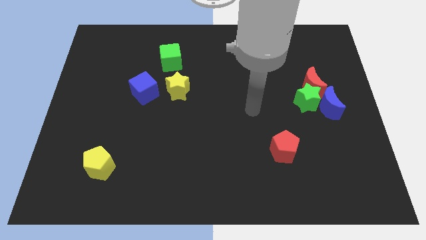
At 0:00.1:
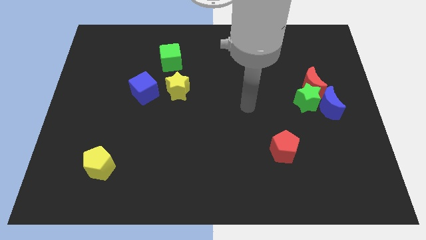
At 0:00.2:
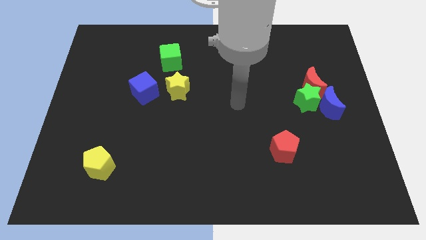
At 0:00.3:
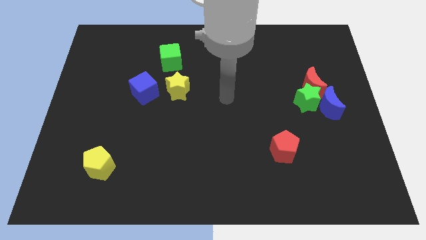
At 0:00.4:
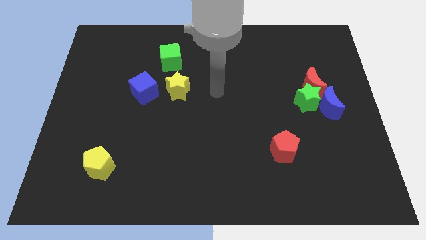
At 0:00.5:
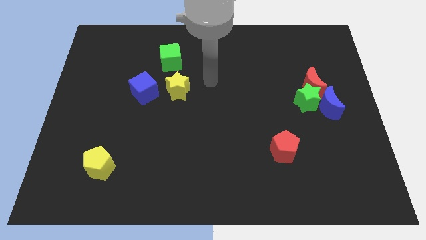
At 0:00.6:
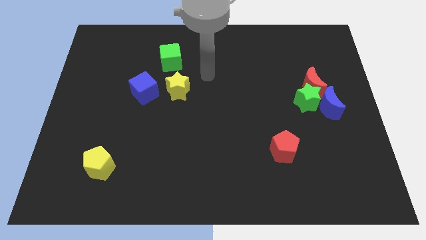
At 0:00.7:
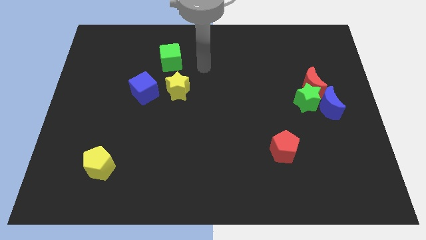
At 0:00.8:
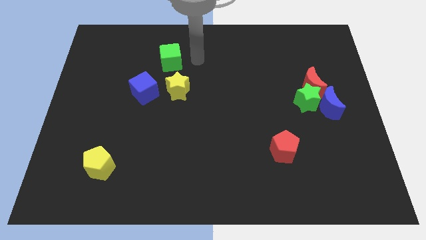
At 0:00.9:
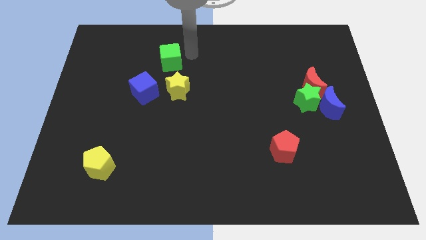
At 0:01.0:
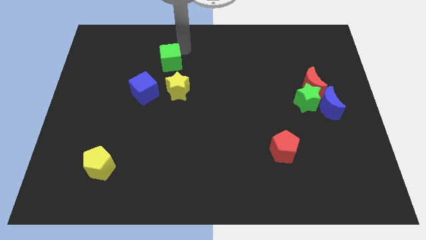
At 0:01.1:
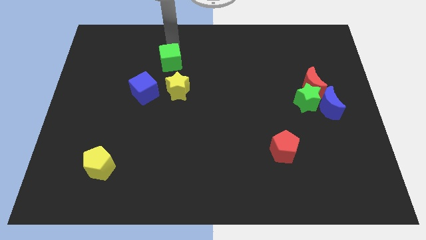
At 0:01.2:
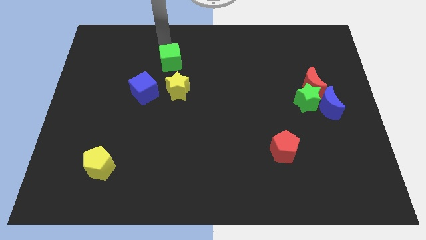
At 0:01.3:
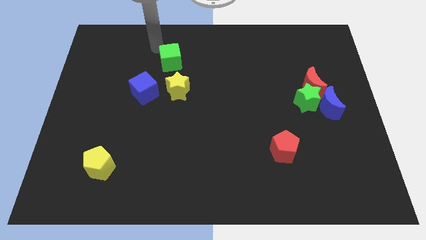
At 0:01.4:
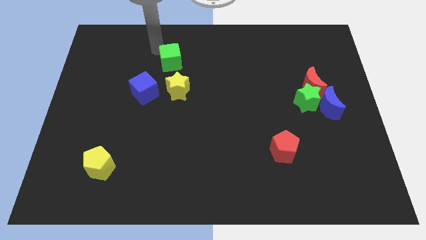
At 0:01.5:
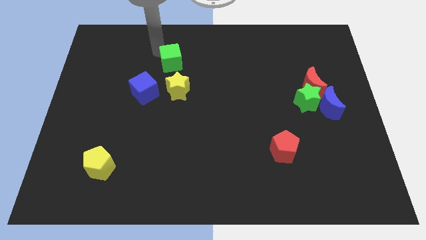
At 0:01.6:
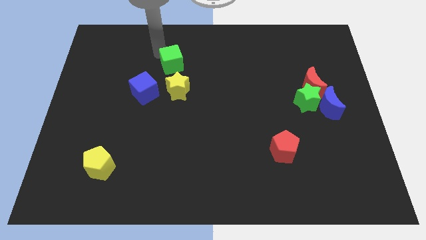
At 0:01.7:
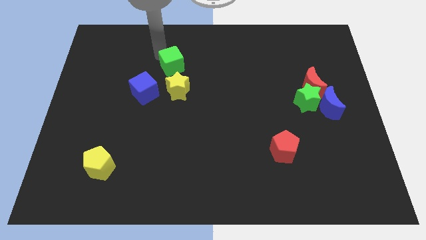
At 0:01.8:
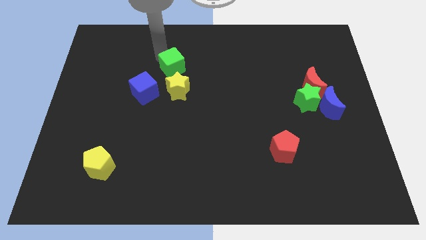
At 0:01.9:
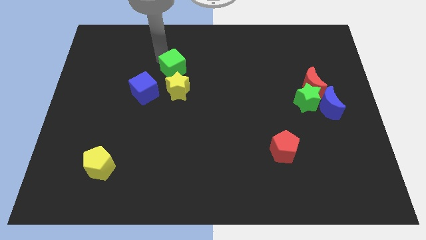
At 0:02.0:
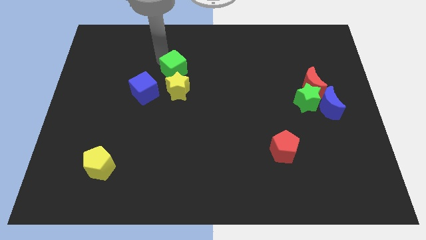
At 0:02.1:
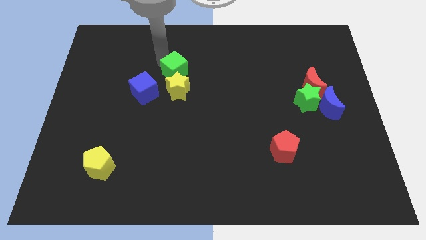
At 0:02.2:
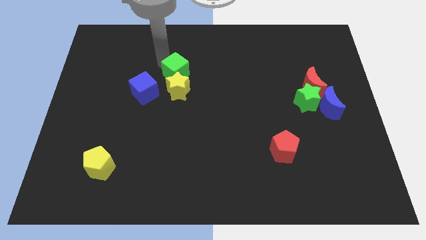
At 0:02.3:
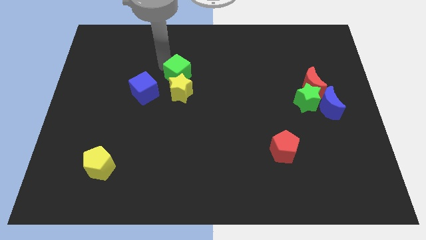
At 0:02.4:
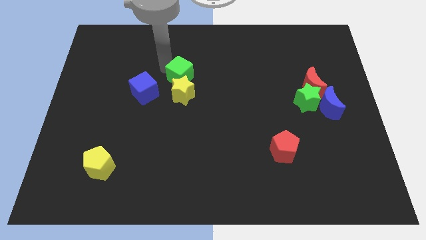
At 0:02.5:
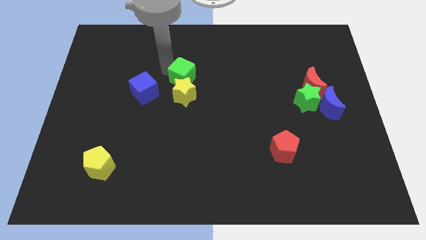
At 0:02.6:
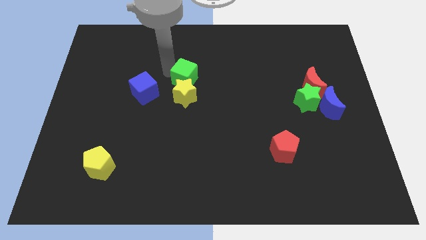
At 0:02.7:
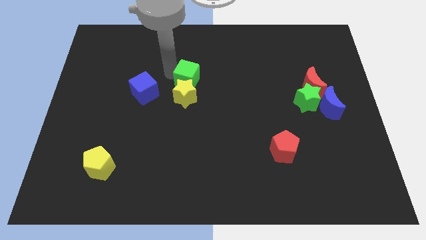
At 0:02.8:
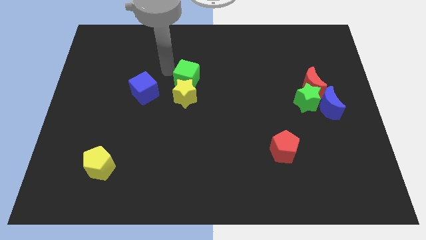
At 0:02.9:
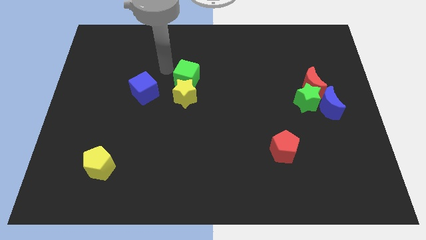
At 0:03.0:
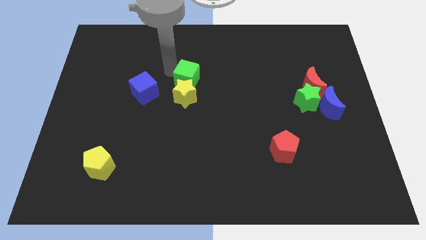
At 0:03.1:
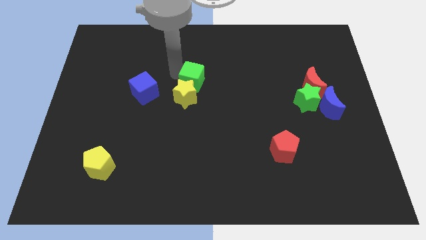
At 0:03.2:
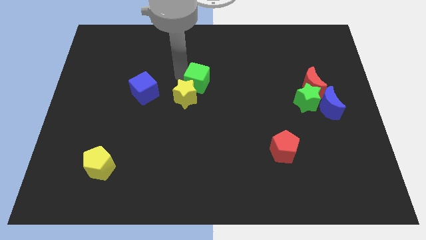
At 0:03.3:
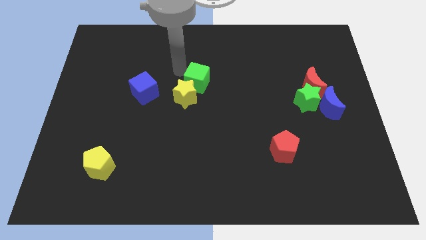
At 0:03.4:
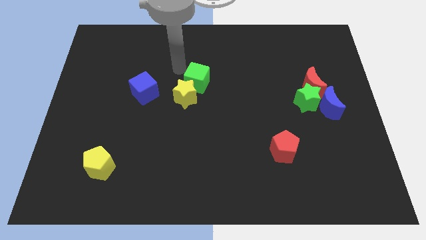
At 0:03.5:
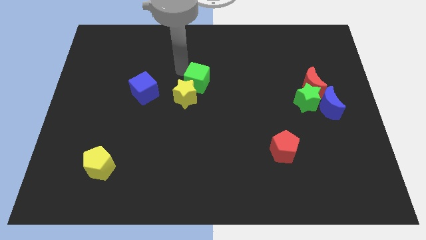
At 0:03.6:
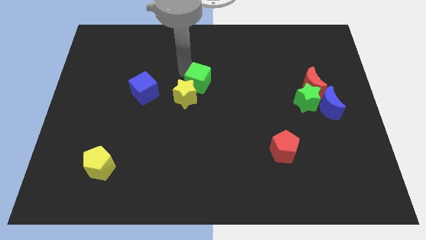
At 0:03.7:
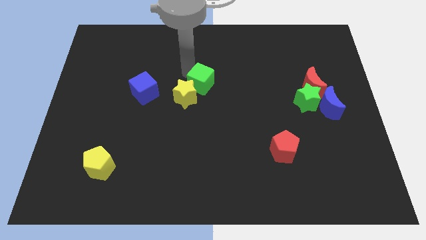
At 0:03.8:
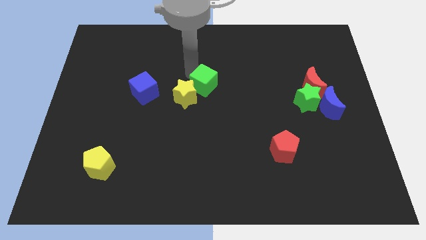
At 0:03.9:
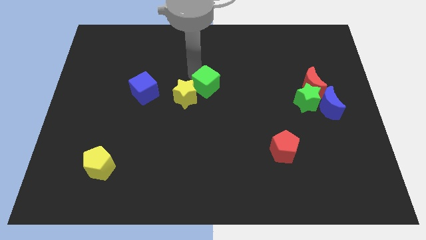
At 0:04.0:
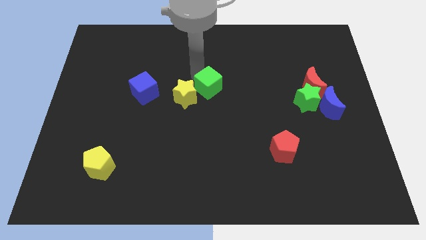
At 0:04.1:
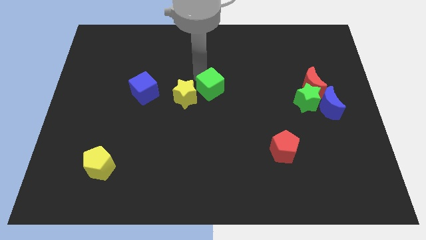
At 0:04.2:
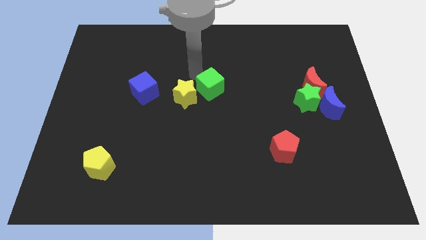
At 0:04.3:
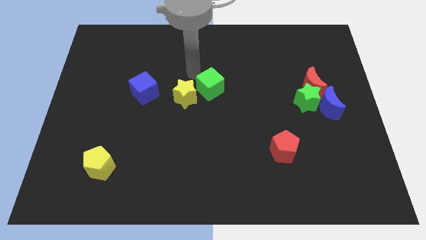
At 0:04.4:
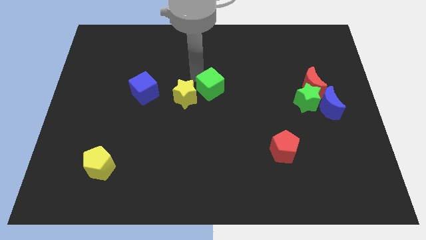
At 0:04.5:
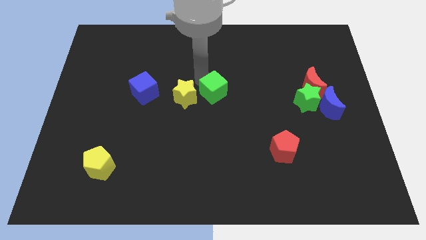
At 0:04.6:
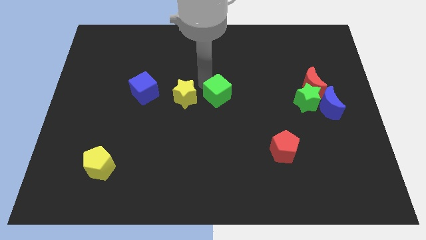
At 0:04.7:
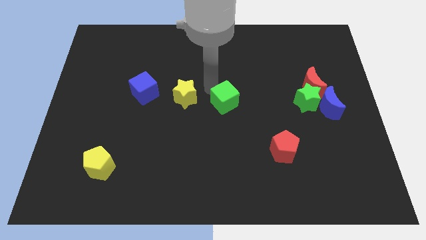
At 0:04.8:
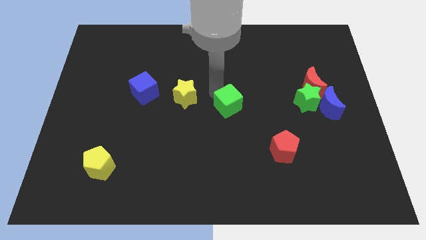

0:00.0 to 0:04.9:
push the green cube down and right diagonally

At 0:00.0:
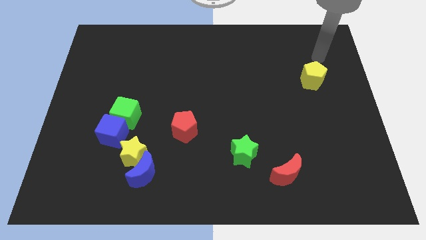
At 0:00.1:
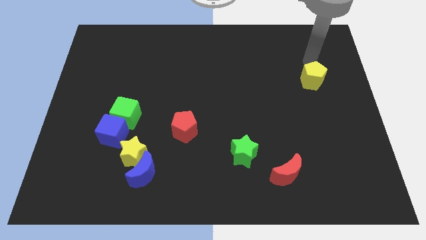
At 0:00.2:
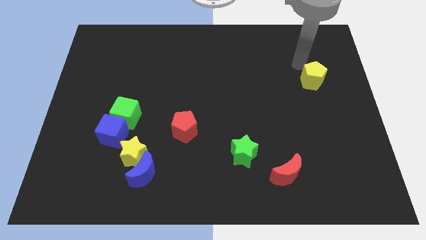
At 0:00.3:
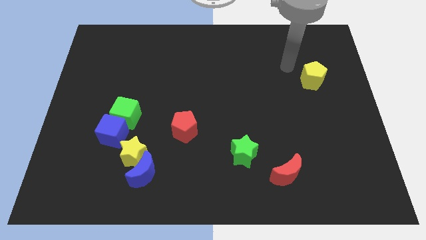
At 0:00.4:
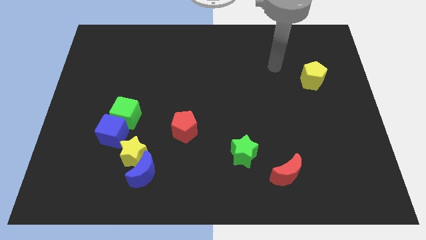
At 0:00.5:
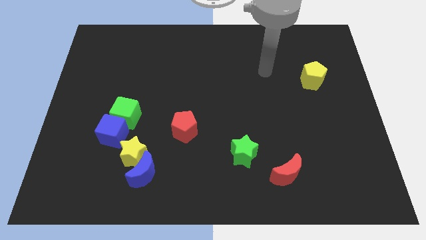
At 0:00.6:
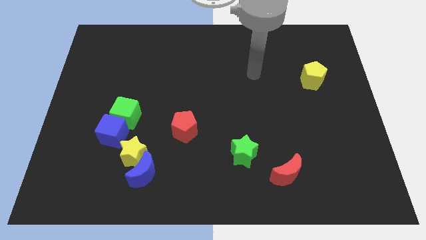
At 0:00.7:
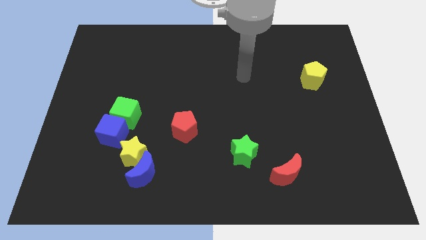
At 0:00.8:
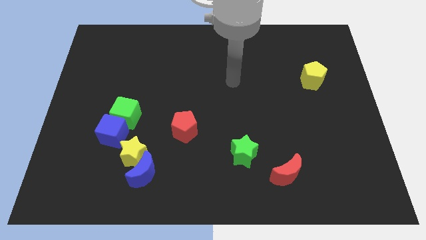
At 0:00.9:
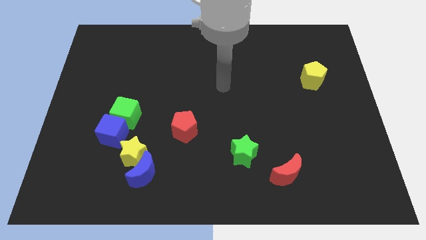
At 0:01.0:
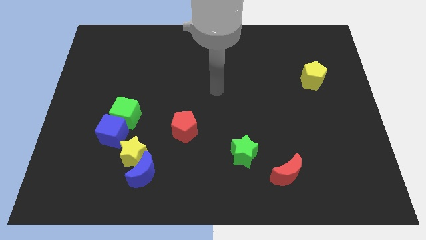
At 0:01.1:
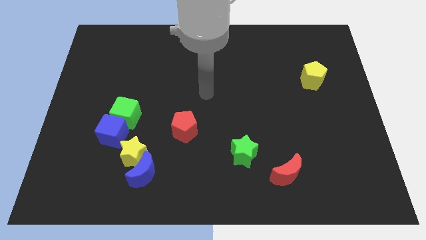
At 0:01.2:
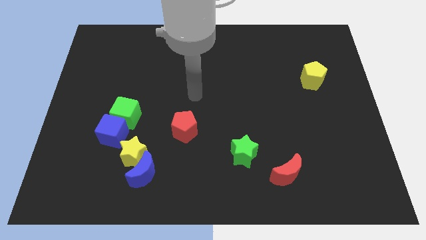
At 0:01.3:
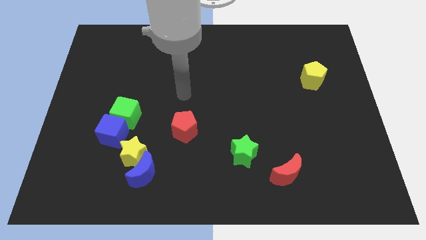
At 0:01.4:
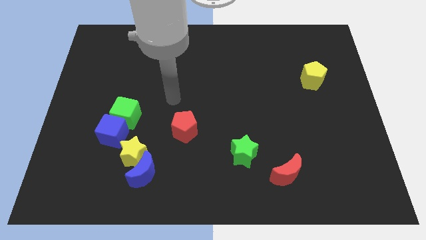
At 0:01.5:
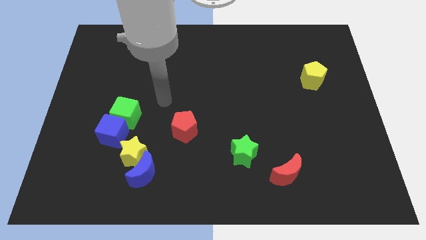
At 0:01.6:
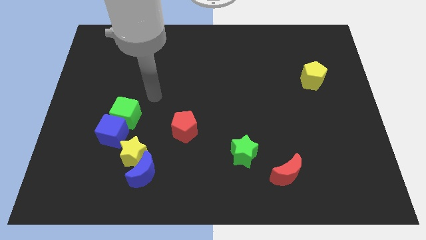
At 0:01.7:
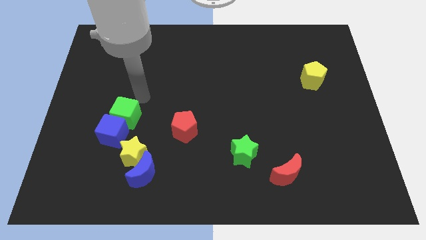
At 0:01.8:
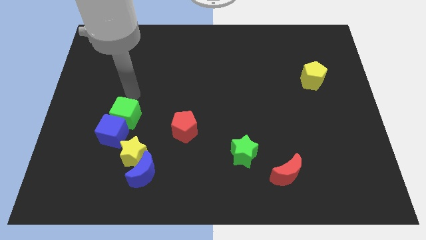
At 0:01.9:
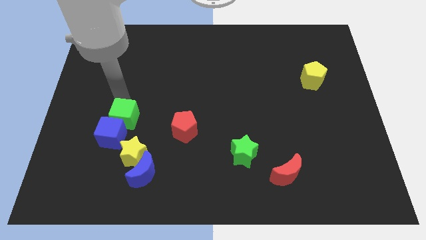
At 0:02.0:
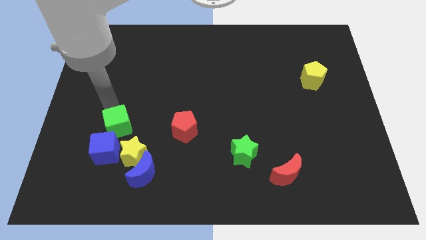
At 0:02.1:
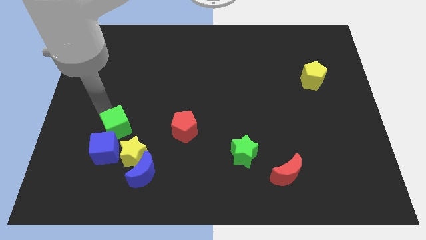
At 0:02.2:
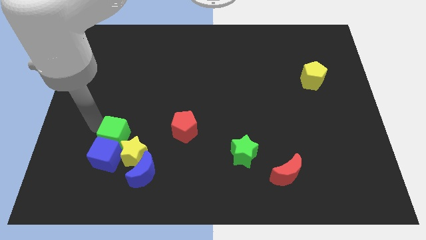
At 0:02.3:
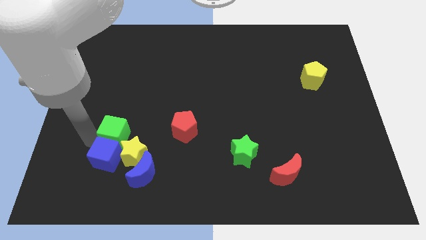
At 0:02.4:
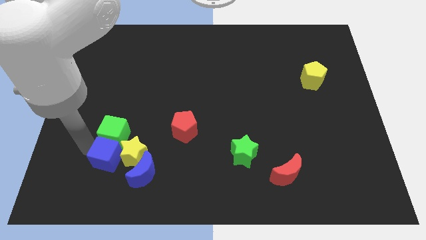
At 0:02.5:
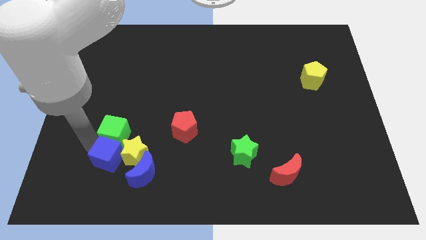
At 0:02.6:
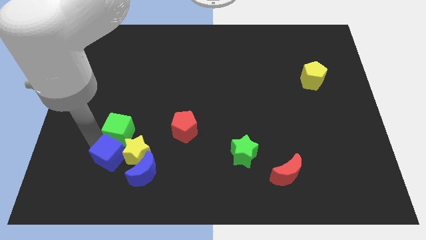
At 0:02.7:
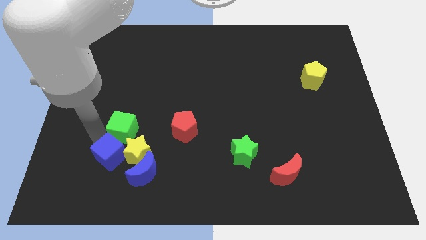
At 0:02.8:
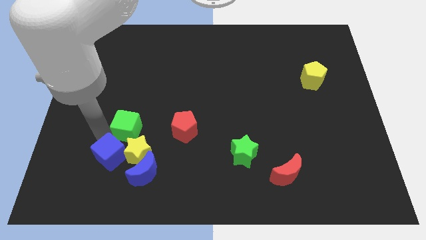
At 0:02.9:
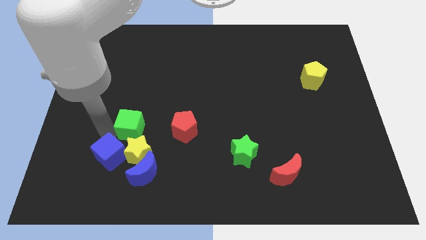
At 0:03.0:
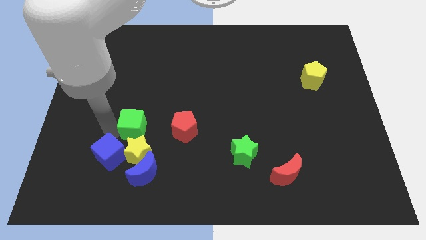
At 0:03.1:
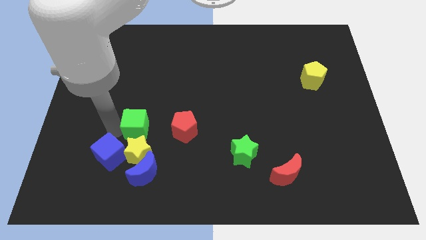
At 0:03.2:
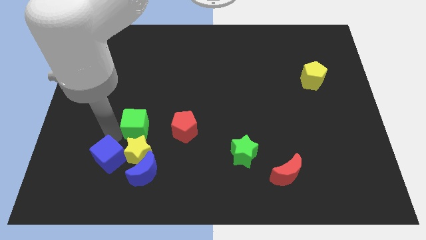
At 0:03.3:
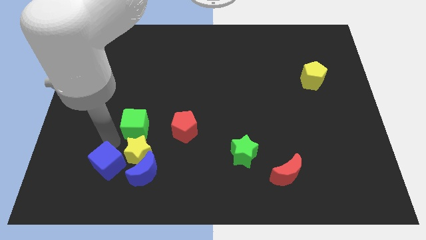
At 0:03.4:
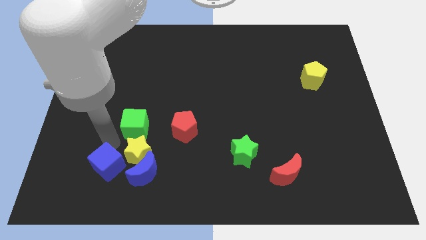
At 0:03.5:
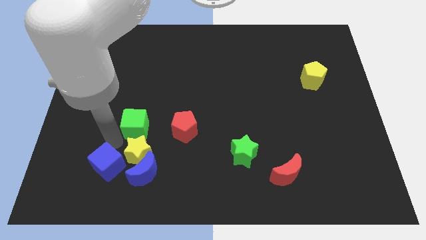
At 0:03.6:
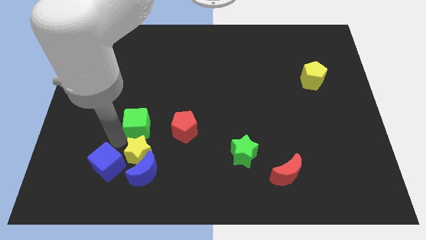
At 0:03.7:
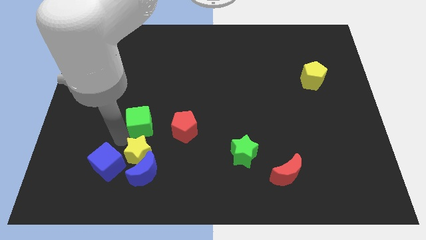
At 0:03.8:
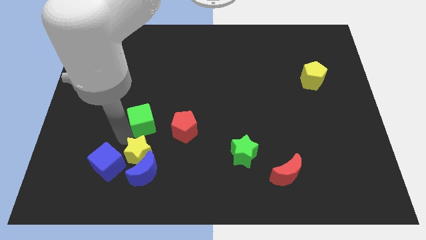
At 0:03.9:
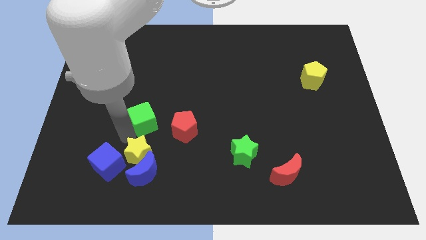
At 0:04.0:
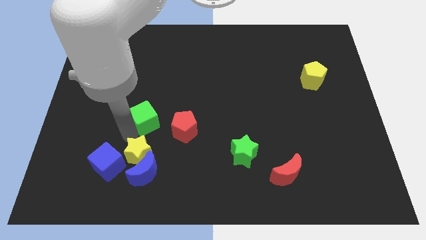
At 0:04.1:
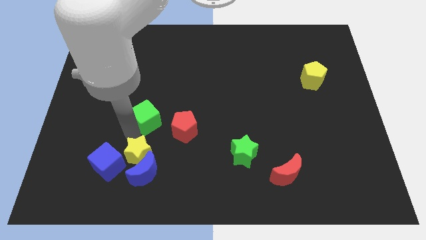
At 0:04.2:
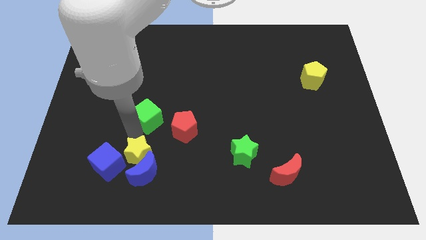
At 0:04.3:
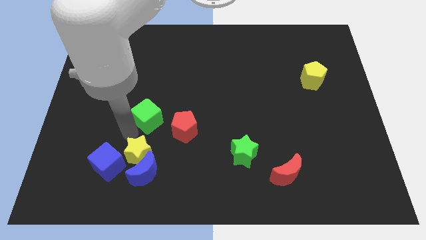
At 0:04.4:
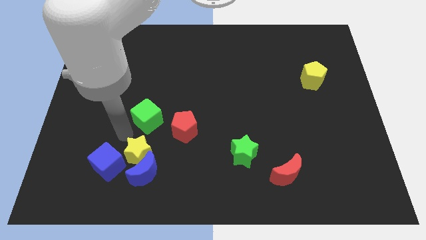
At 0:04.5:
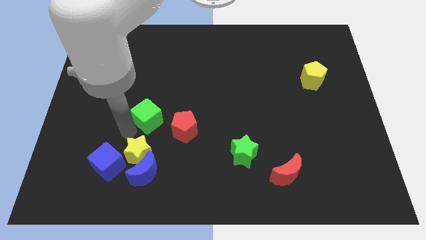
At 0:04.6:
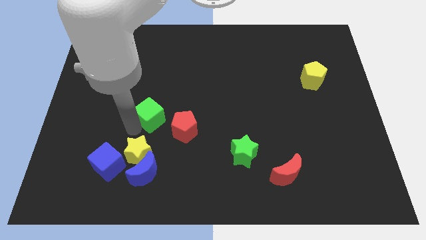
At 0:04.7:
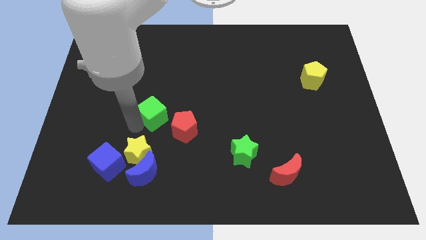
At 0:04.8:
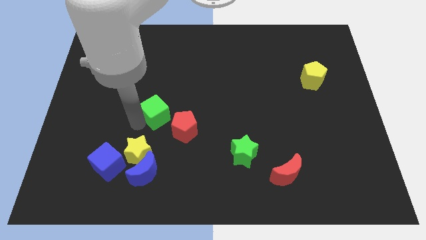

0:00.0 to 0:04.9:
slide the green cube a bit to the right
